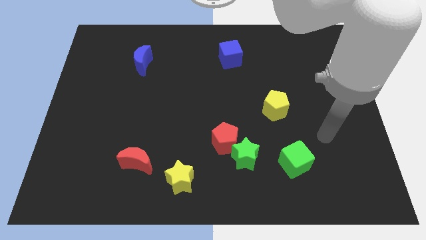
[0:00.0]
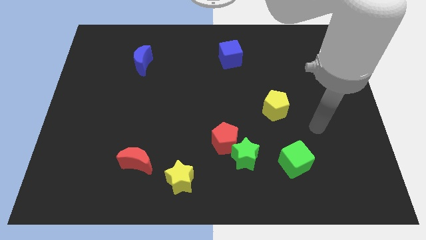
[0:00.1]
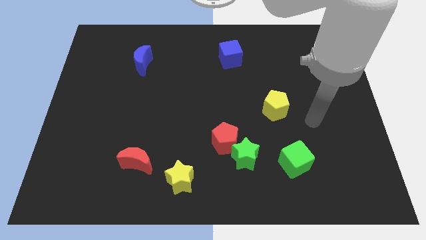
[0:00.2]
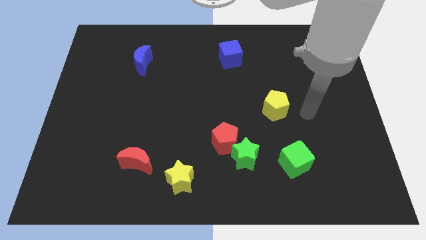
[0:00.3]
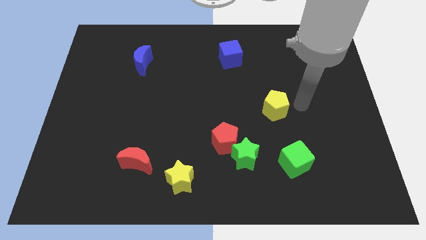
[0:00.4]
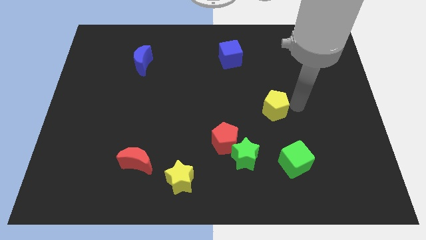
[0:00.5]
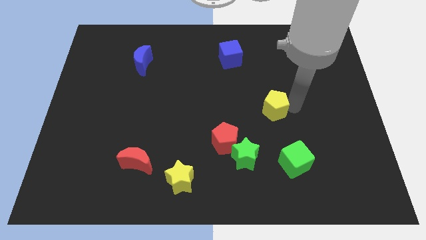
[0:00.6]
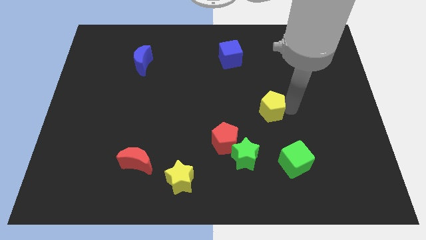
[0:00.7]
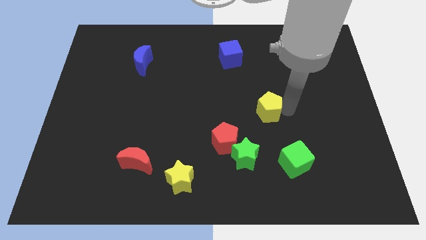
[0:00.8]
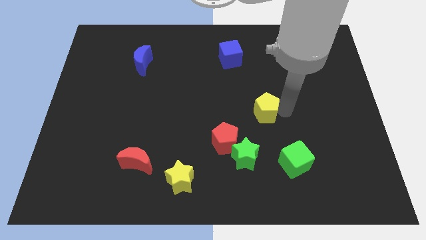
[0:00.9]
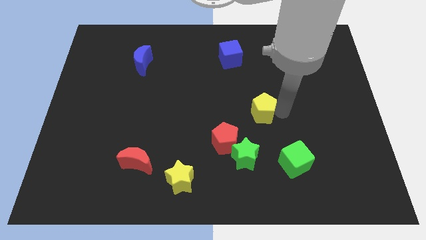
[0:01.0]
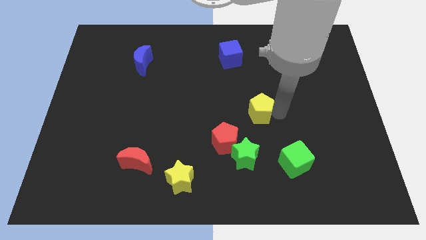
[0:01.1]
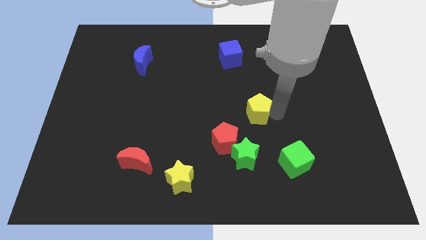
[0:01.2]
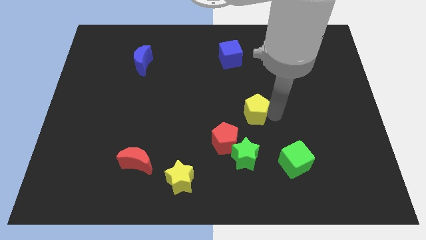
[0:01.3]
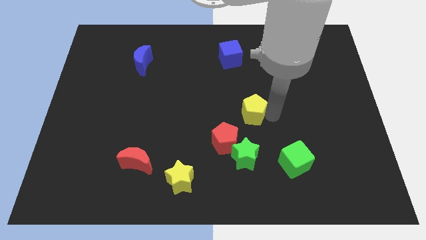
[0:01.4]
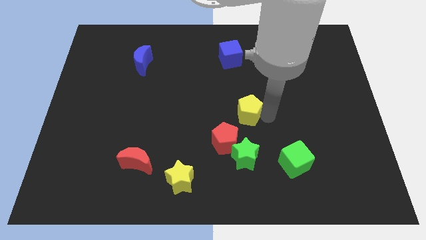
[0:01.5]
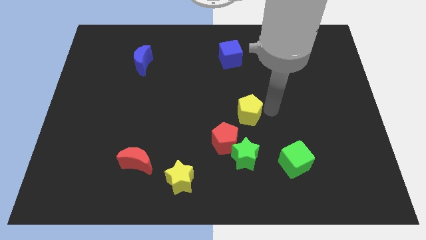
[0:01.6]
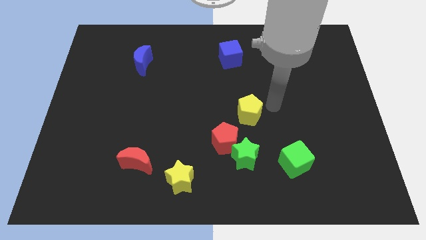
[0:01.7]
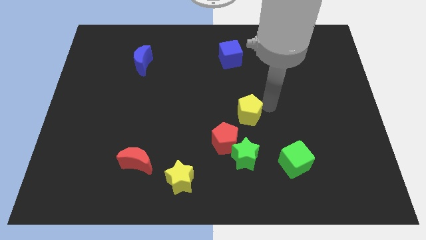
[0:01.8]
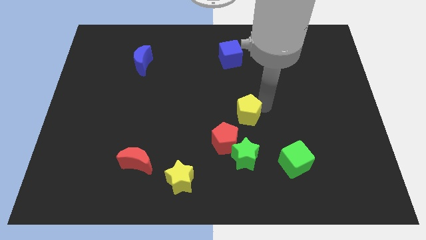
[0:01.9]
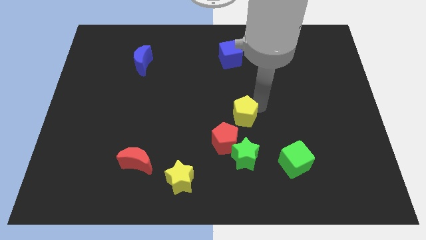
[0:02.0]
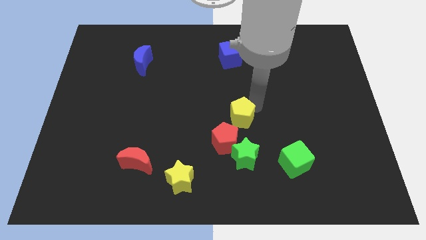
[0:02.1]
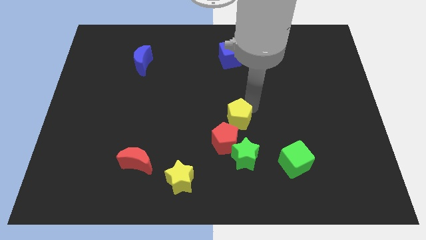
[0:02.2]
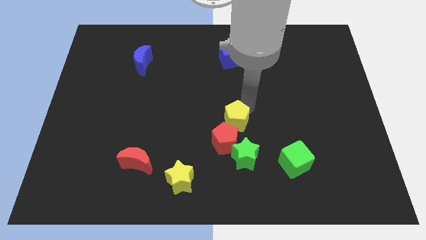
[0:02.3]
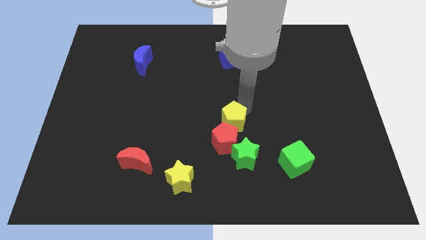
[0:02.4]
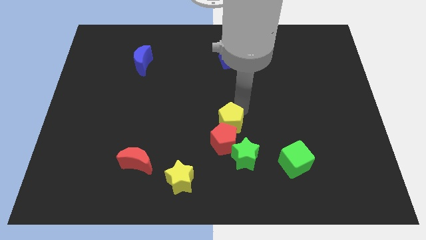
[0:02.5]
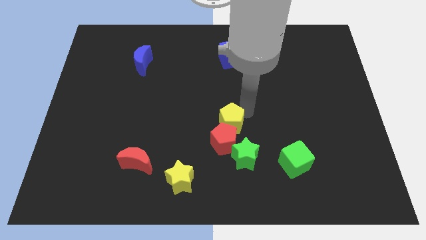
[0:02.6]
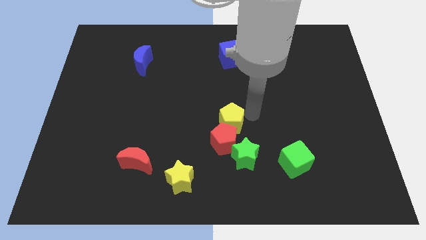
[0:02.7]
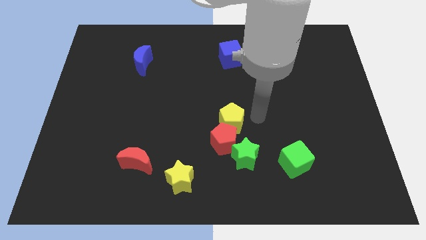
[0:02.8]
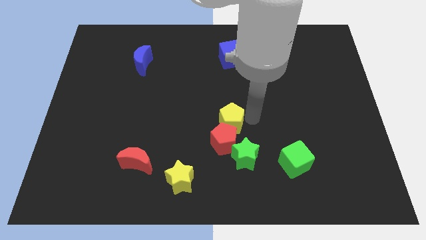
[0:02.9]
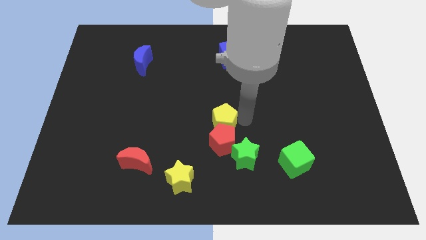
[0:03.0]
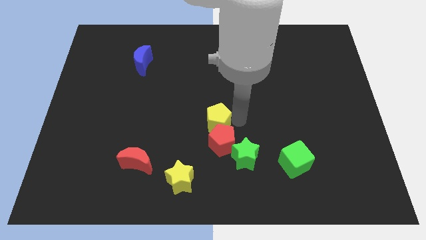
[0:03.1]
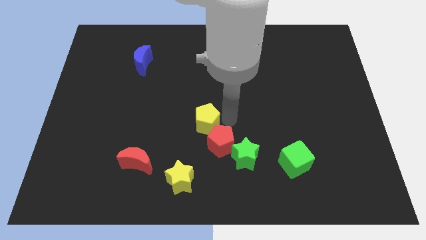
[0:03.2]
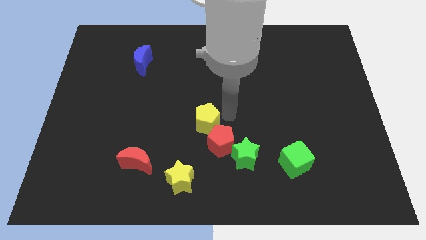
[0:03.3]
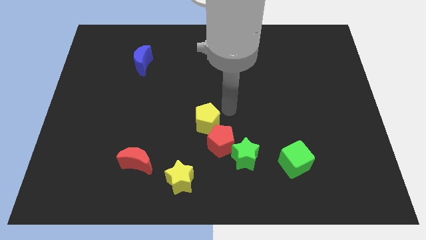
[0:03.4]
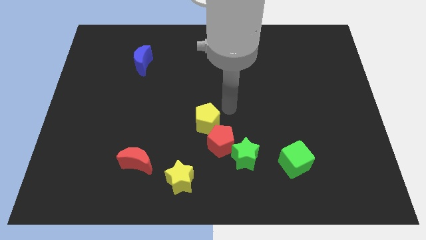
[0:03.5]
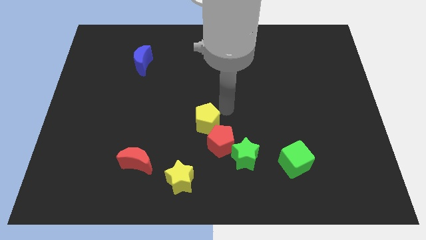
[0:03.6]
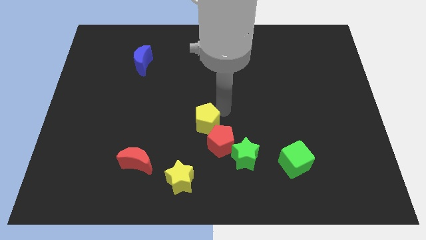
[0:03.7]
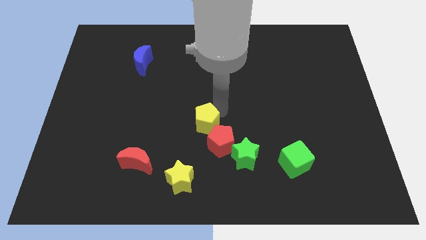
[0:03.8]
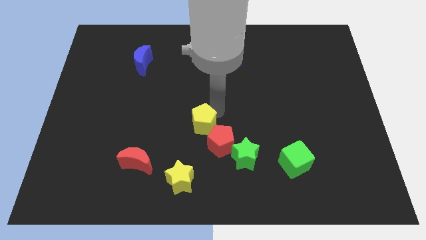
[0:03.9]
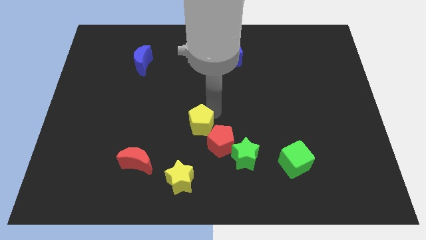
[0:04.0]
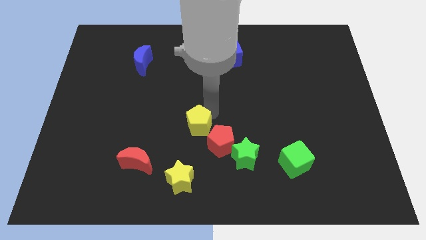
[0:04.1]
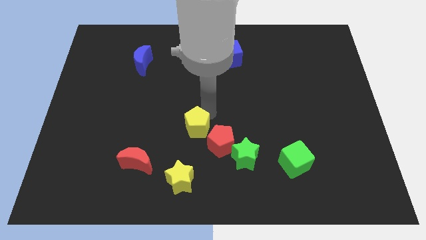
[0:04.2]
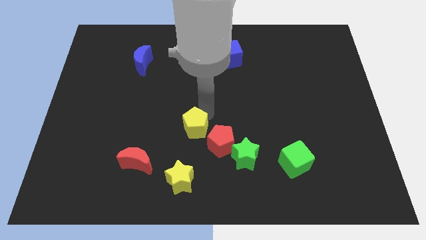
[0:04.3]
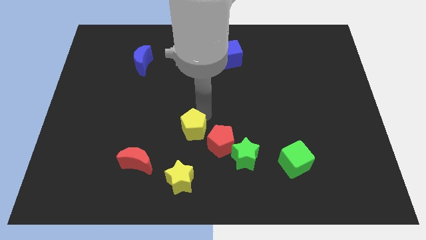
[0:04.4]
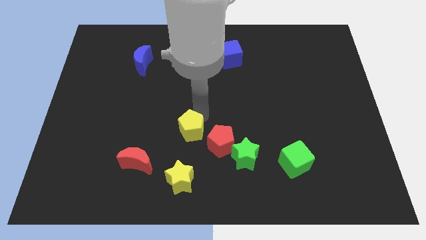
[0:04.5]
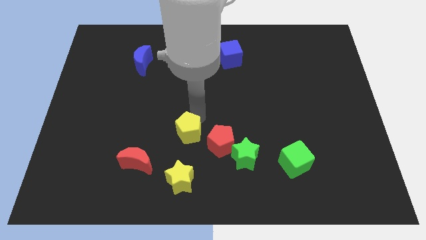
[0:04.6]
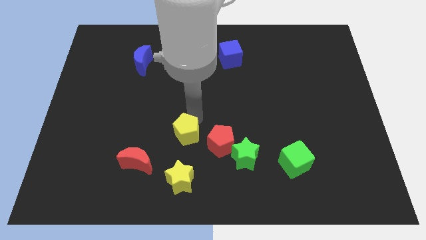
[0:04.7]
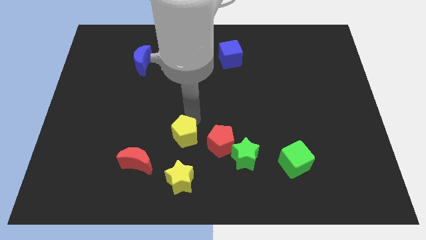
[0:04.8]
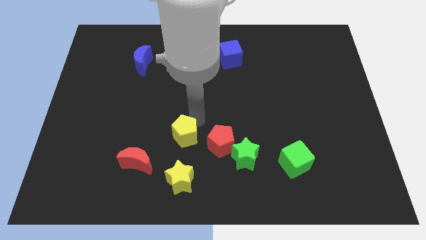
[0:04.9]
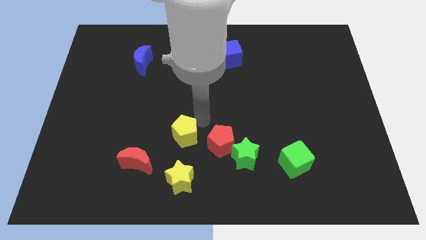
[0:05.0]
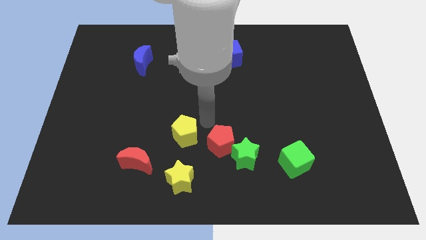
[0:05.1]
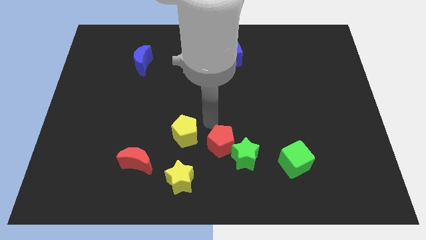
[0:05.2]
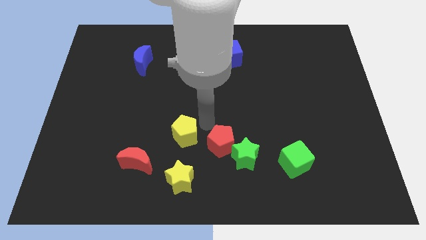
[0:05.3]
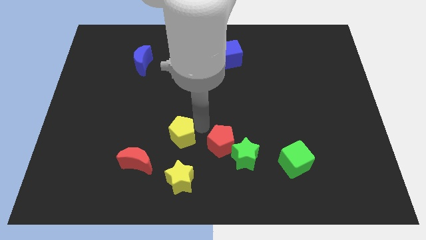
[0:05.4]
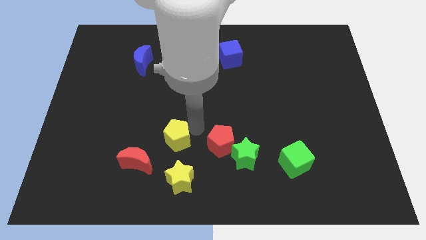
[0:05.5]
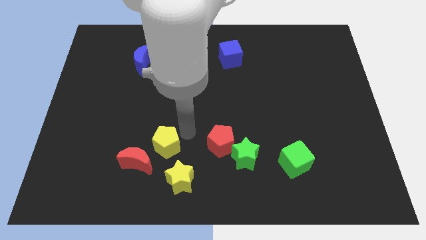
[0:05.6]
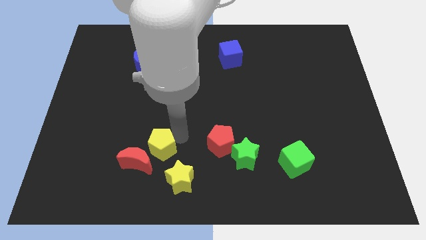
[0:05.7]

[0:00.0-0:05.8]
slide the yellow pentagon next to the red moon
